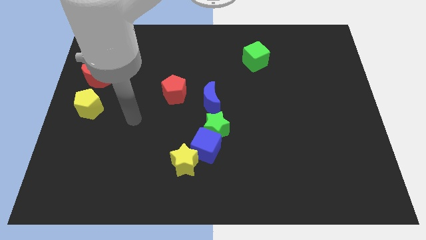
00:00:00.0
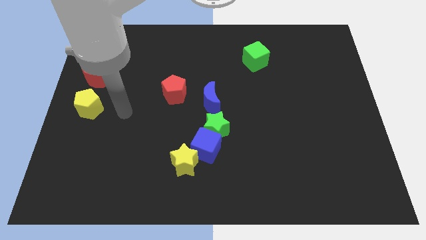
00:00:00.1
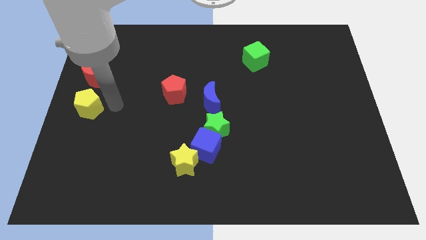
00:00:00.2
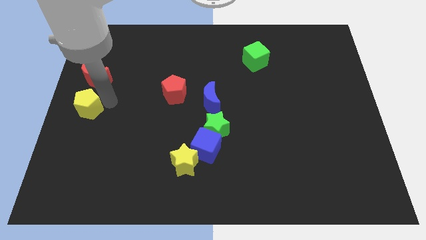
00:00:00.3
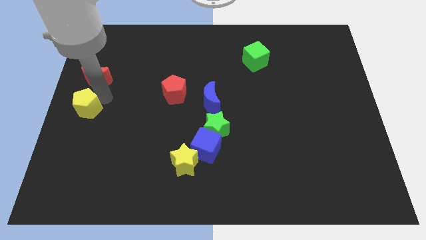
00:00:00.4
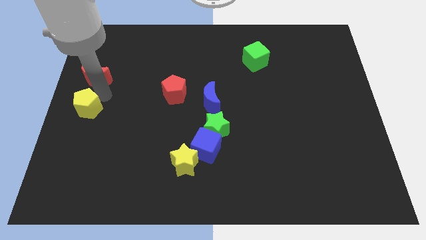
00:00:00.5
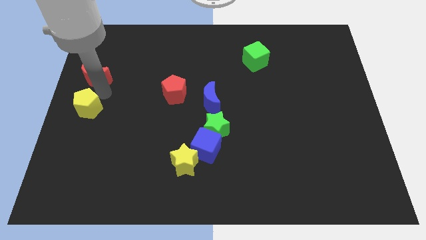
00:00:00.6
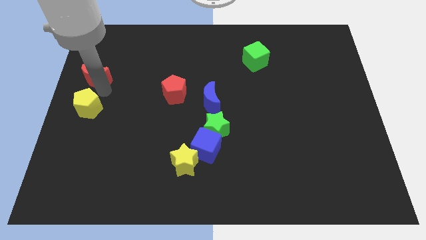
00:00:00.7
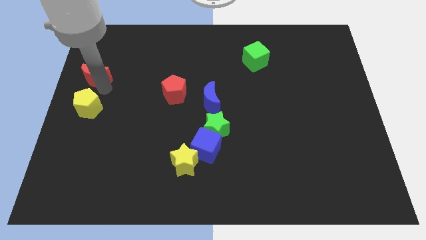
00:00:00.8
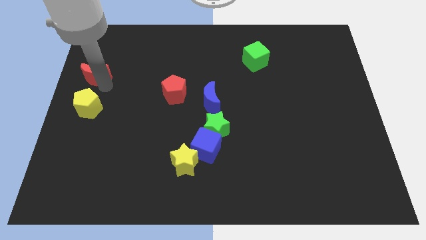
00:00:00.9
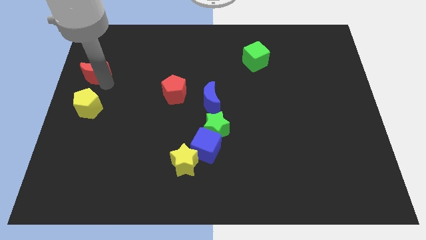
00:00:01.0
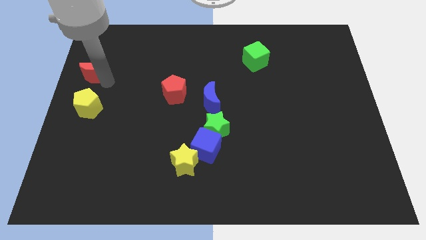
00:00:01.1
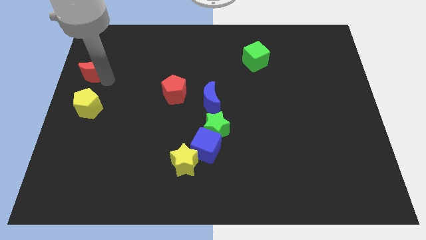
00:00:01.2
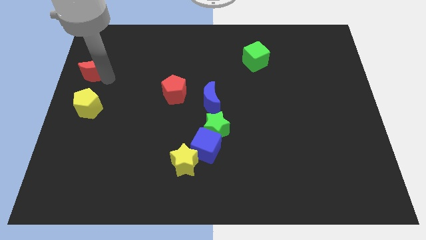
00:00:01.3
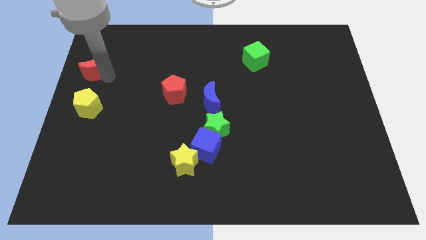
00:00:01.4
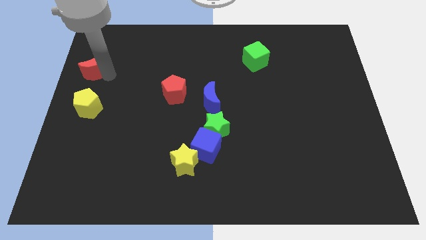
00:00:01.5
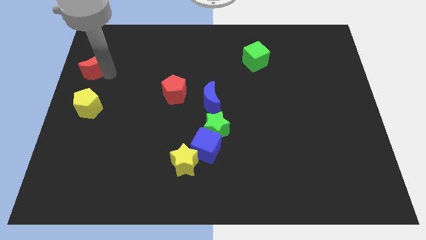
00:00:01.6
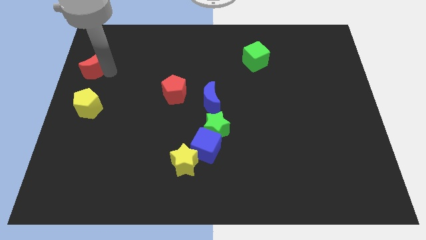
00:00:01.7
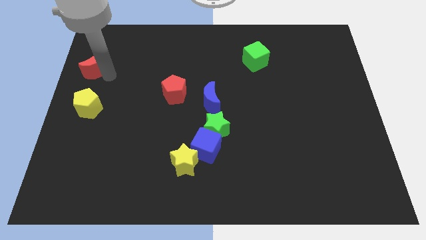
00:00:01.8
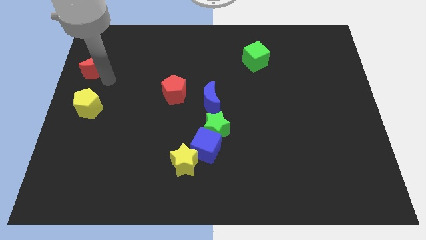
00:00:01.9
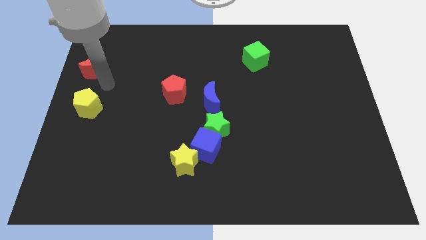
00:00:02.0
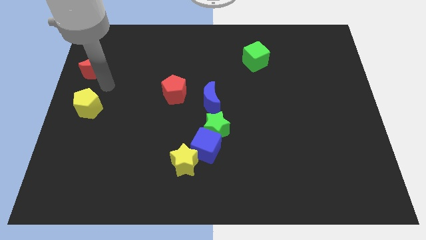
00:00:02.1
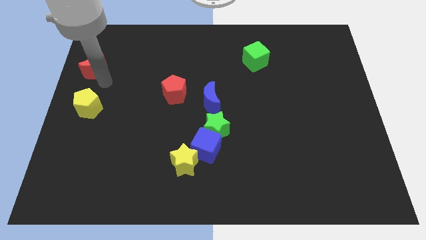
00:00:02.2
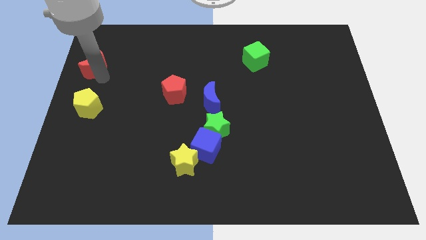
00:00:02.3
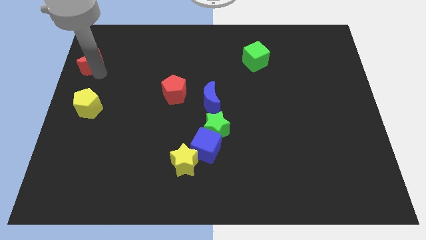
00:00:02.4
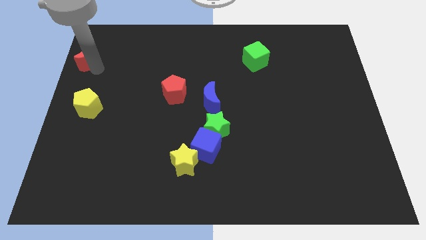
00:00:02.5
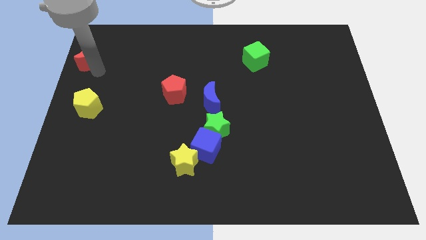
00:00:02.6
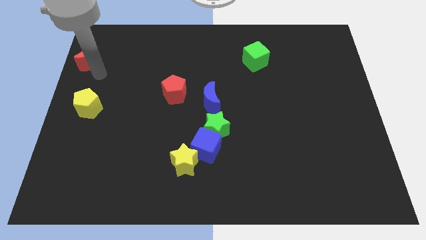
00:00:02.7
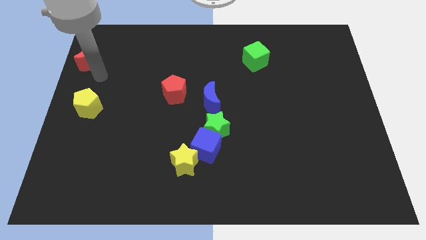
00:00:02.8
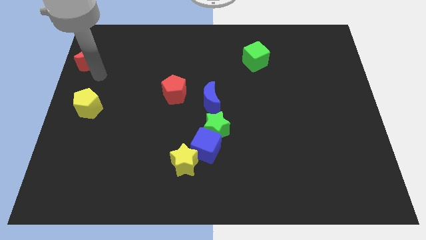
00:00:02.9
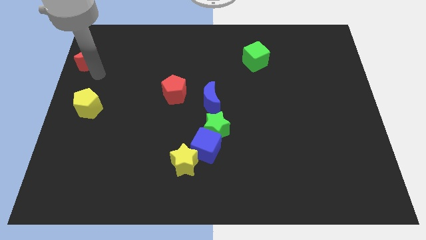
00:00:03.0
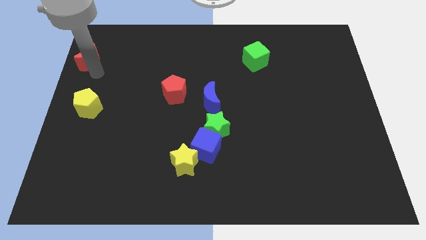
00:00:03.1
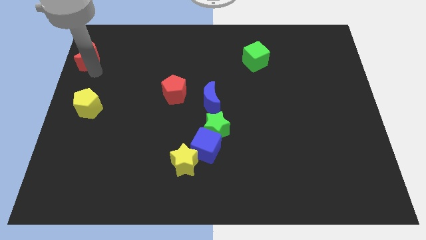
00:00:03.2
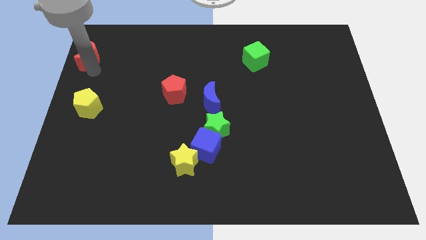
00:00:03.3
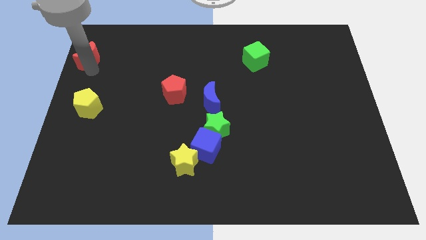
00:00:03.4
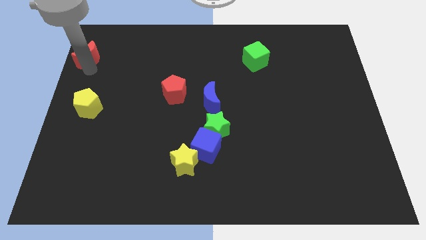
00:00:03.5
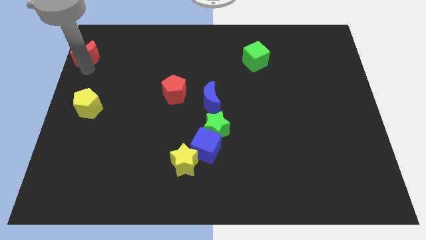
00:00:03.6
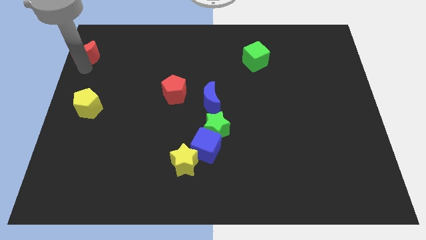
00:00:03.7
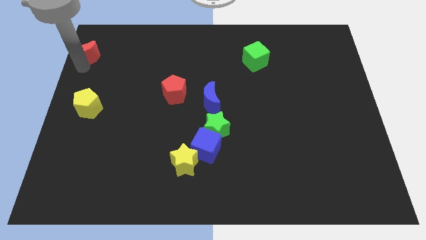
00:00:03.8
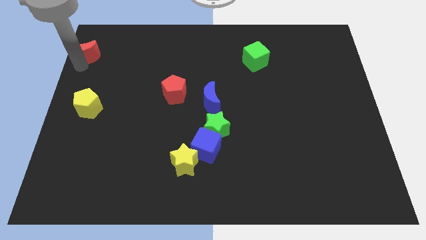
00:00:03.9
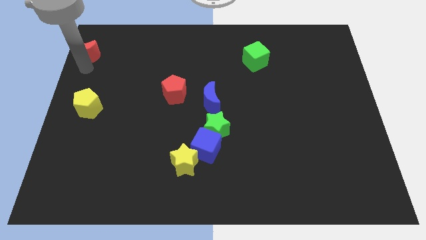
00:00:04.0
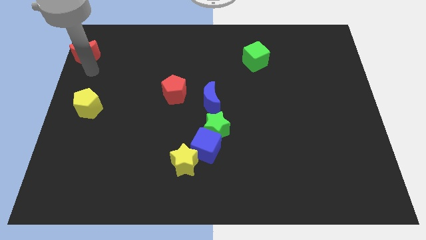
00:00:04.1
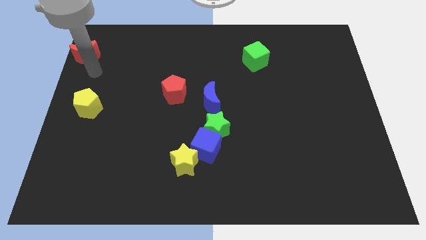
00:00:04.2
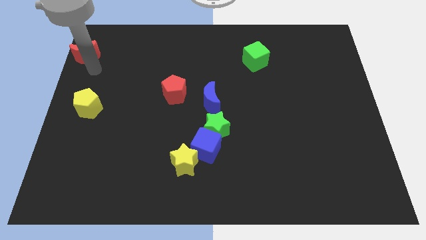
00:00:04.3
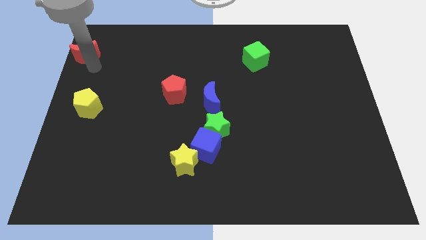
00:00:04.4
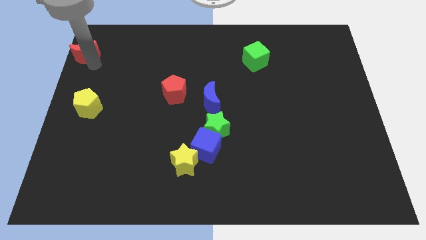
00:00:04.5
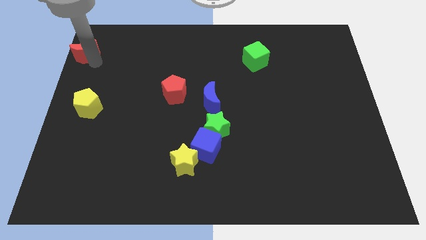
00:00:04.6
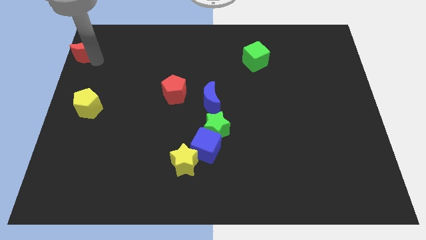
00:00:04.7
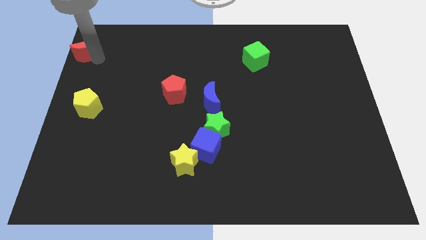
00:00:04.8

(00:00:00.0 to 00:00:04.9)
move the red moon to the top left

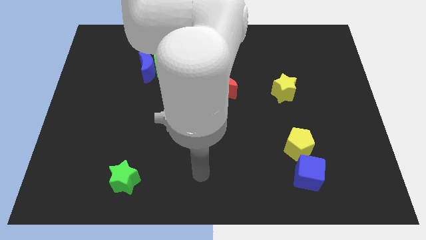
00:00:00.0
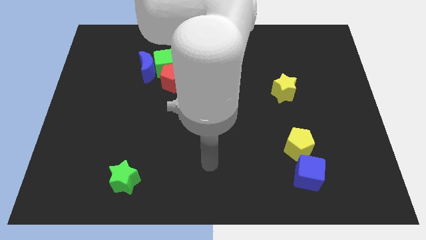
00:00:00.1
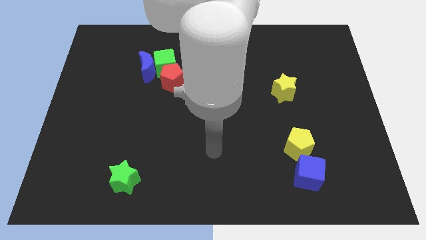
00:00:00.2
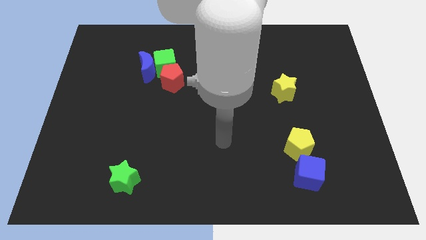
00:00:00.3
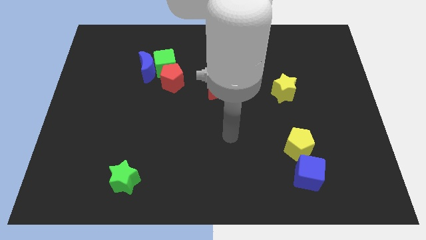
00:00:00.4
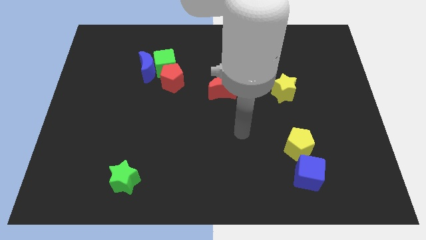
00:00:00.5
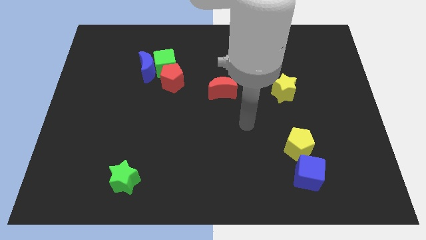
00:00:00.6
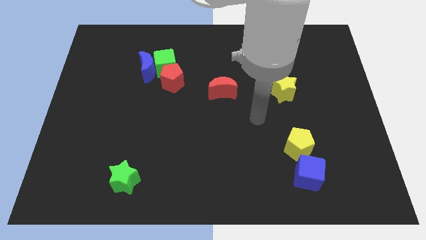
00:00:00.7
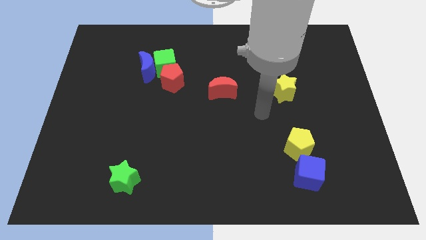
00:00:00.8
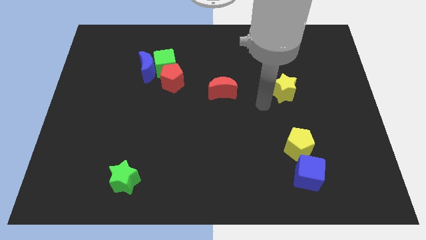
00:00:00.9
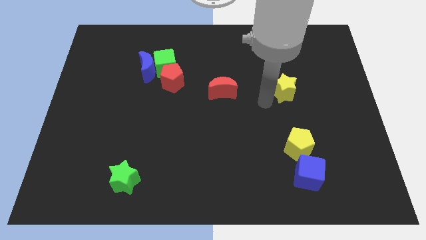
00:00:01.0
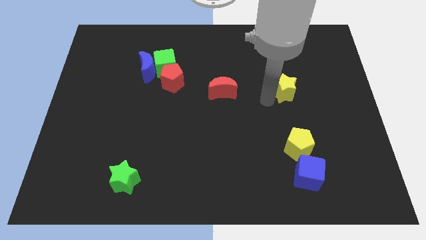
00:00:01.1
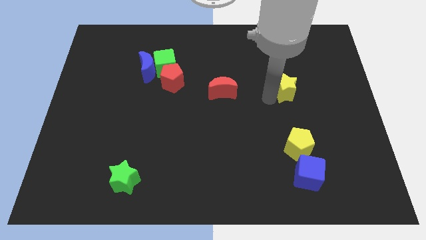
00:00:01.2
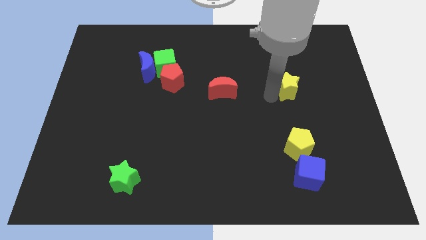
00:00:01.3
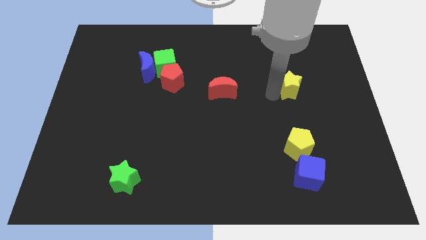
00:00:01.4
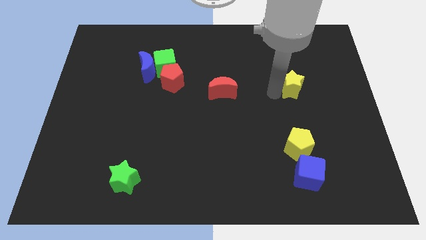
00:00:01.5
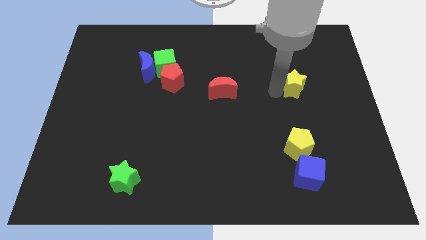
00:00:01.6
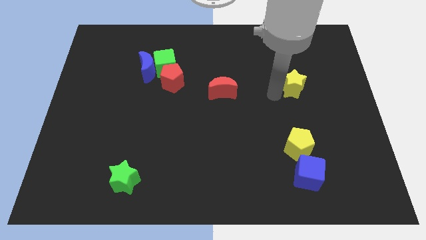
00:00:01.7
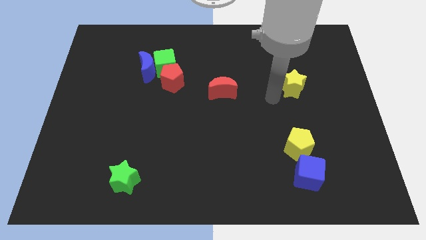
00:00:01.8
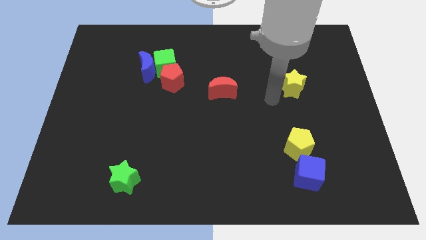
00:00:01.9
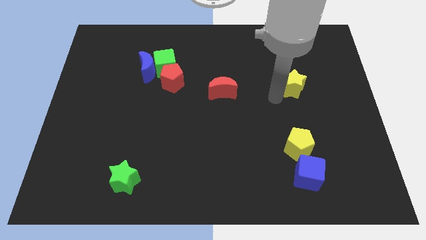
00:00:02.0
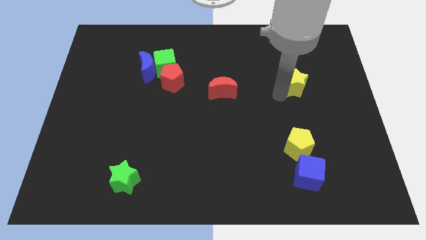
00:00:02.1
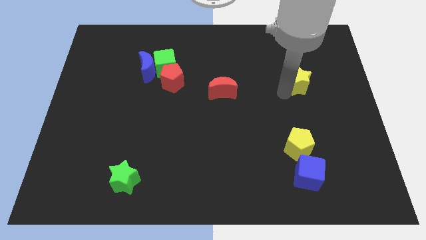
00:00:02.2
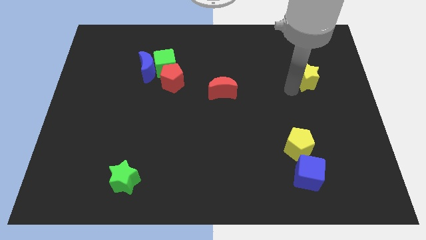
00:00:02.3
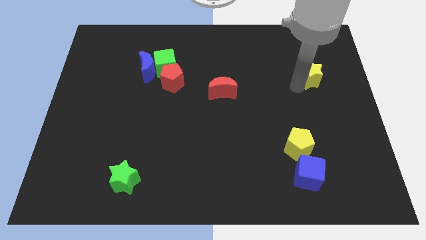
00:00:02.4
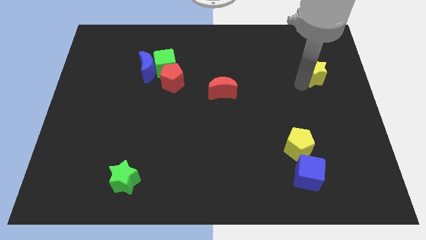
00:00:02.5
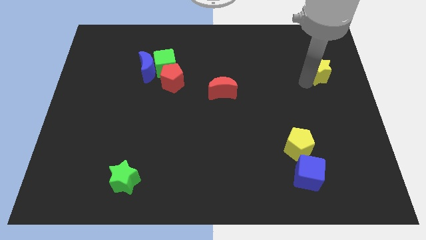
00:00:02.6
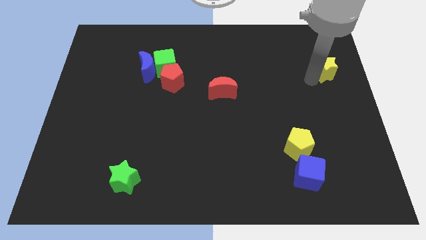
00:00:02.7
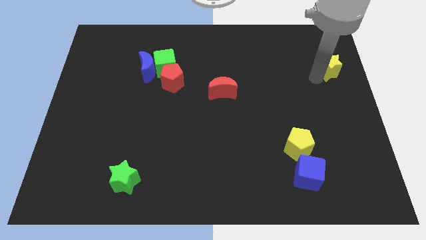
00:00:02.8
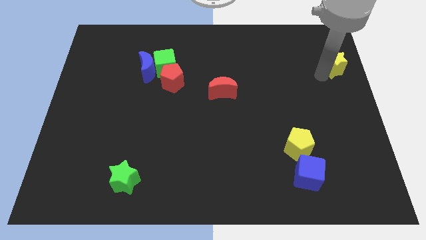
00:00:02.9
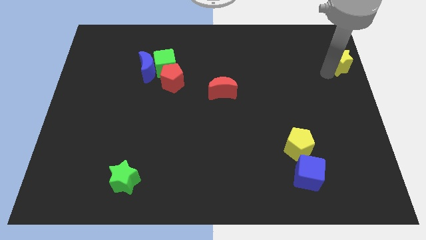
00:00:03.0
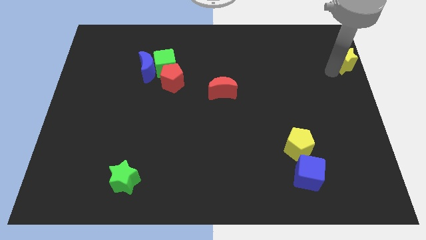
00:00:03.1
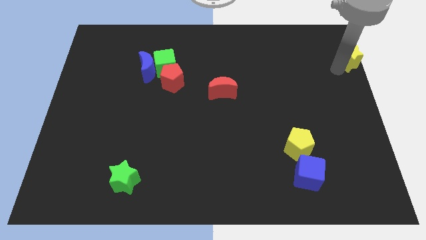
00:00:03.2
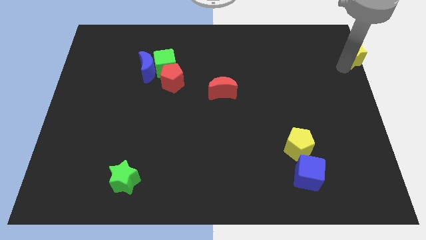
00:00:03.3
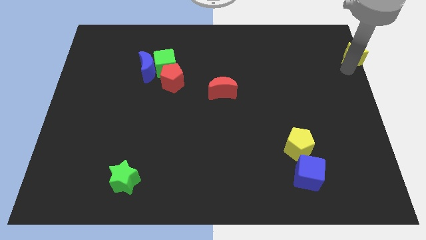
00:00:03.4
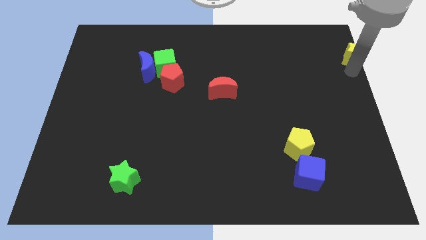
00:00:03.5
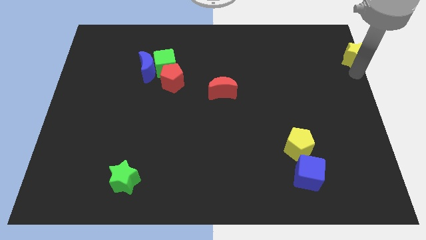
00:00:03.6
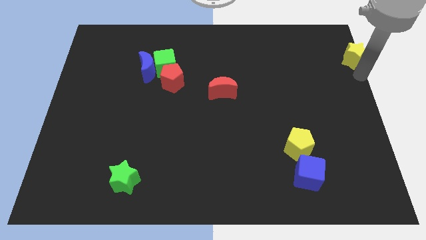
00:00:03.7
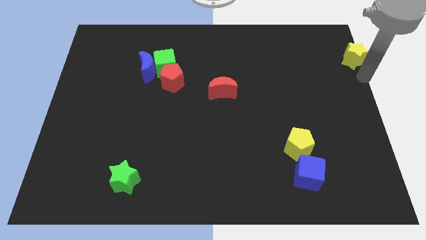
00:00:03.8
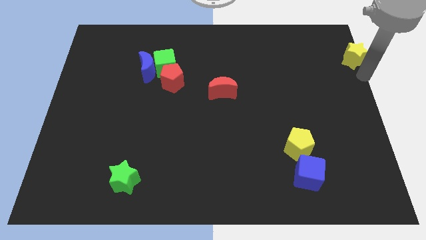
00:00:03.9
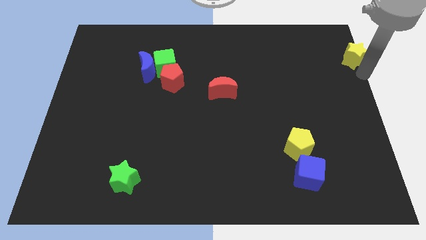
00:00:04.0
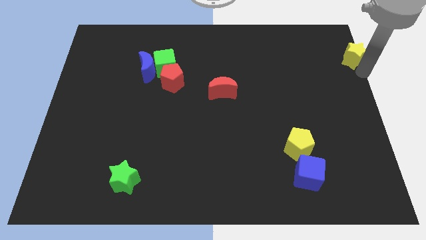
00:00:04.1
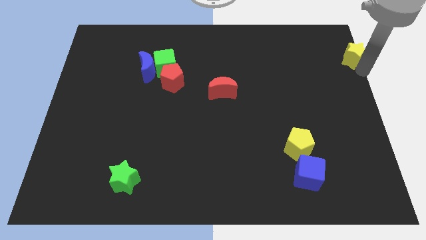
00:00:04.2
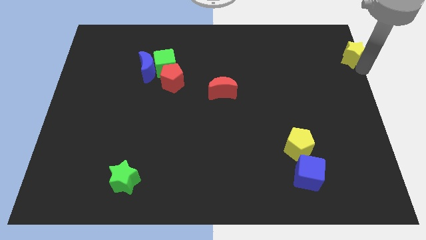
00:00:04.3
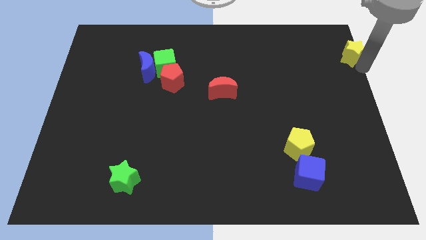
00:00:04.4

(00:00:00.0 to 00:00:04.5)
push the yellow star to the top right corner
